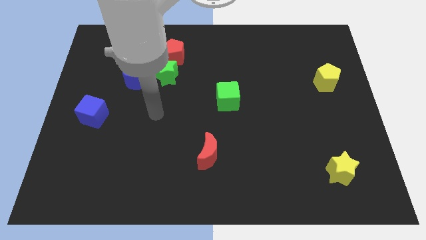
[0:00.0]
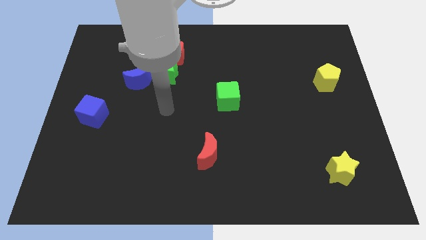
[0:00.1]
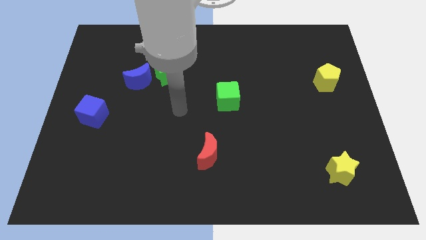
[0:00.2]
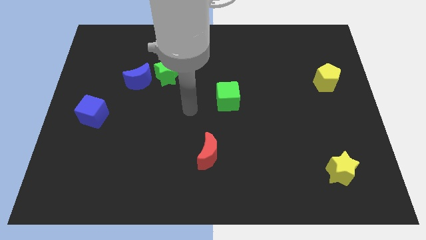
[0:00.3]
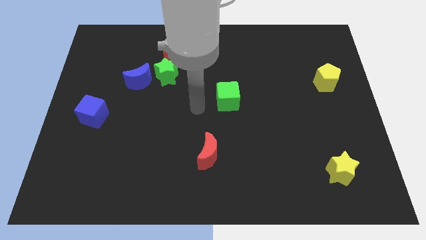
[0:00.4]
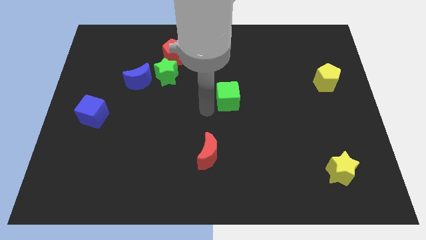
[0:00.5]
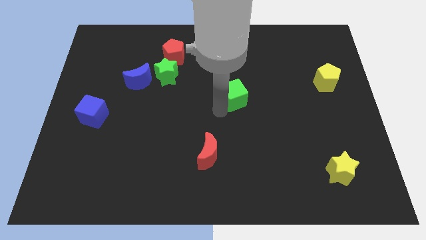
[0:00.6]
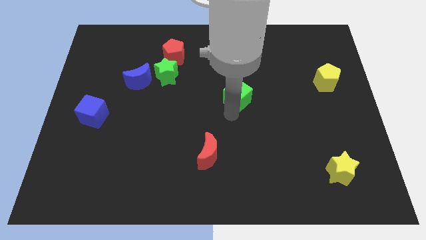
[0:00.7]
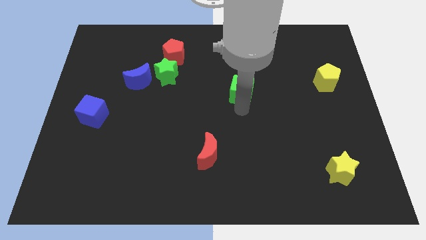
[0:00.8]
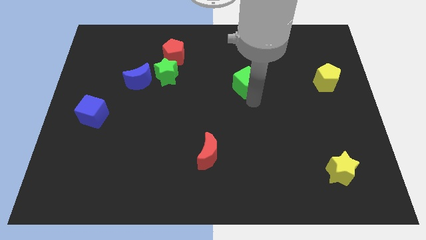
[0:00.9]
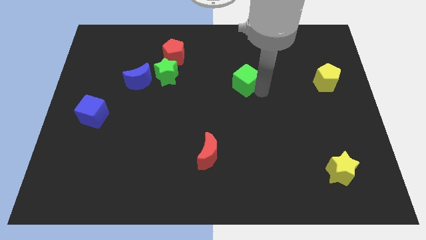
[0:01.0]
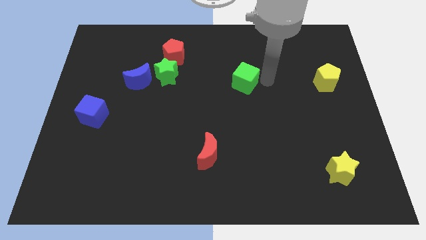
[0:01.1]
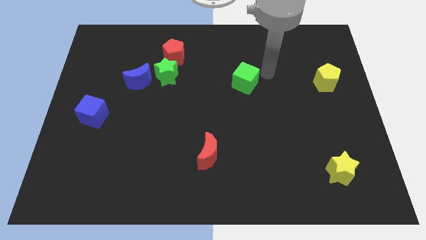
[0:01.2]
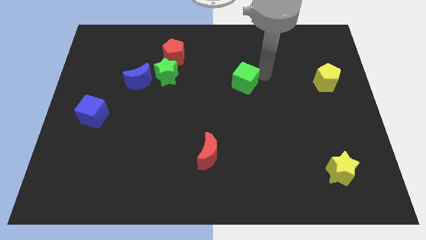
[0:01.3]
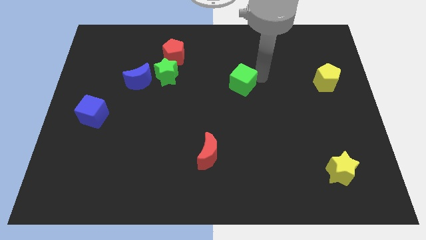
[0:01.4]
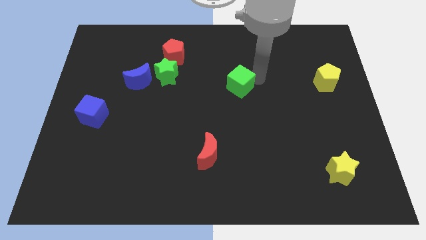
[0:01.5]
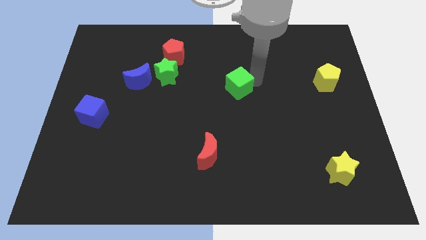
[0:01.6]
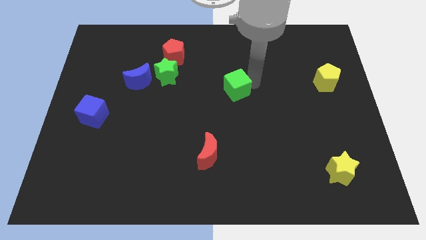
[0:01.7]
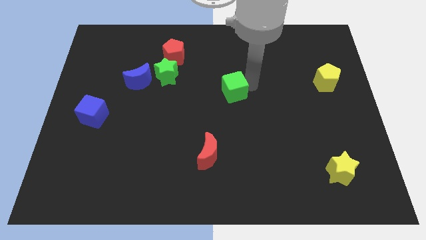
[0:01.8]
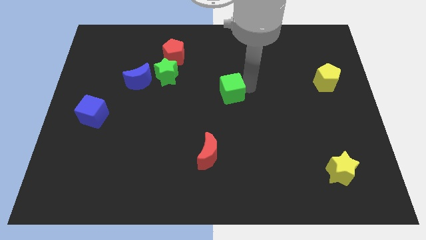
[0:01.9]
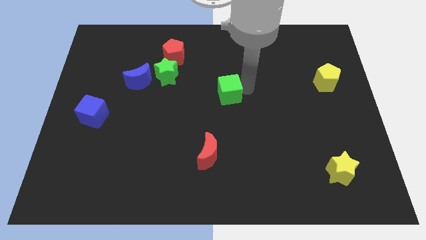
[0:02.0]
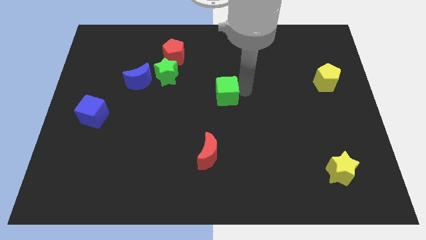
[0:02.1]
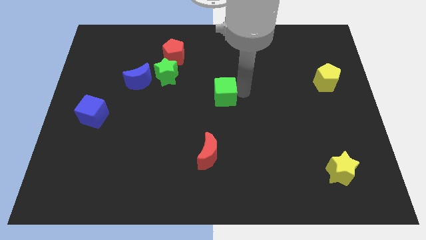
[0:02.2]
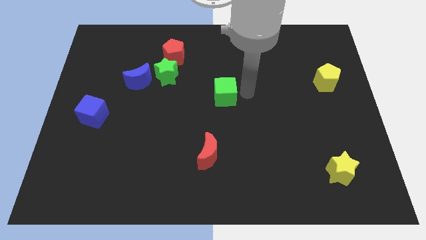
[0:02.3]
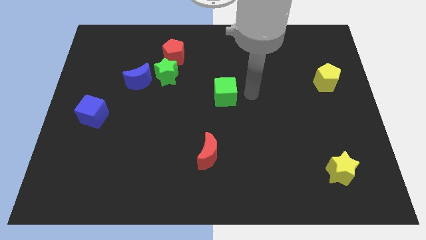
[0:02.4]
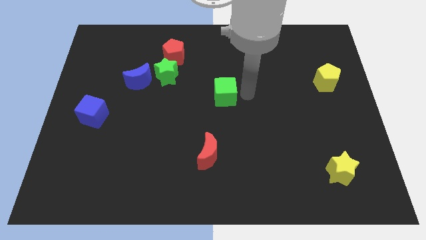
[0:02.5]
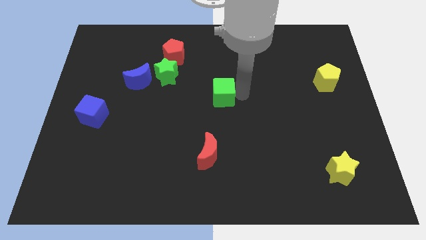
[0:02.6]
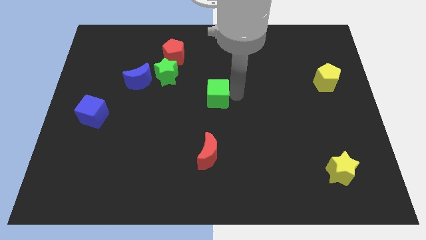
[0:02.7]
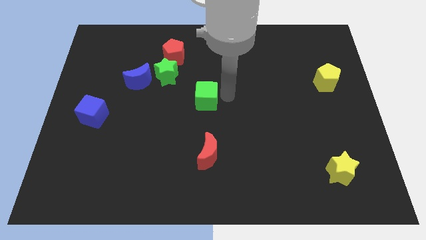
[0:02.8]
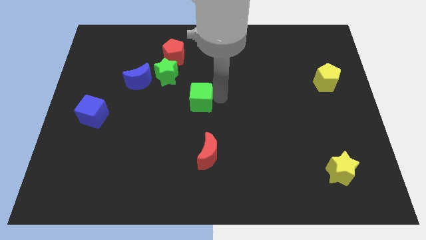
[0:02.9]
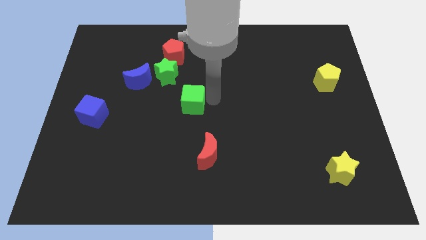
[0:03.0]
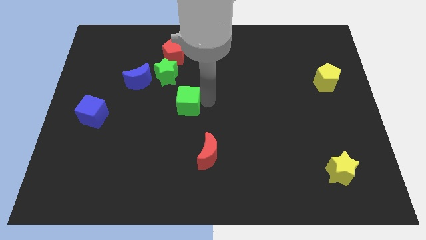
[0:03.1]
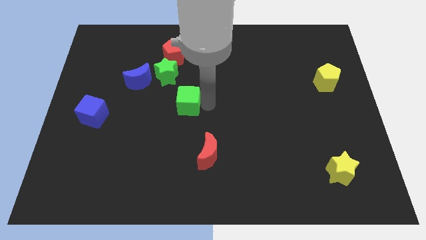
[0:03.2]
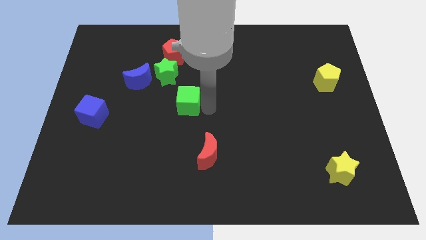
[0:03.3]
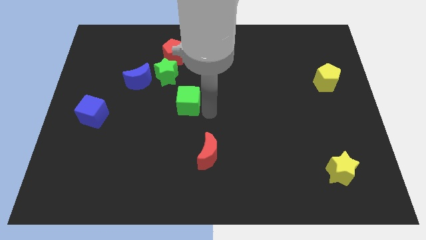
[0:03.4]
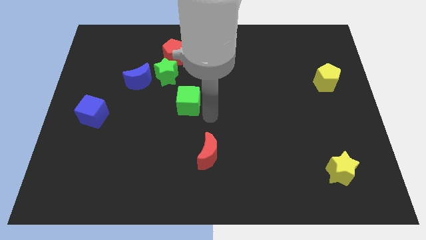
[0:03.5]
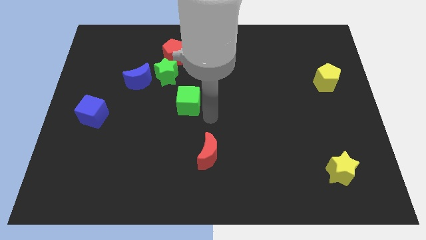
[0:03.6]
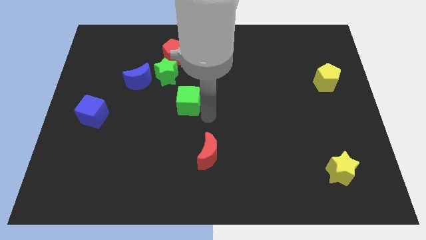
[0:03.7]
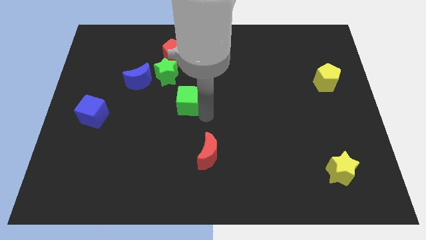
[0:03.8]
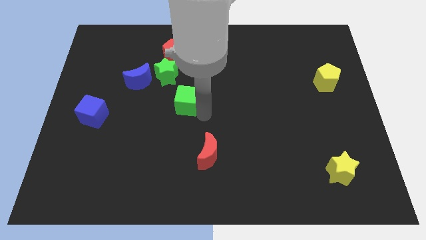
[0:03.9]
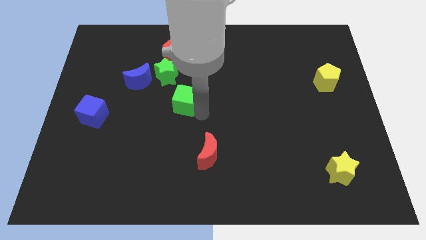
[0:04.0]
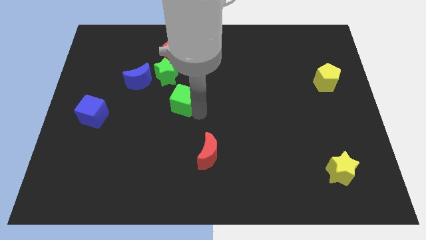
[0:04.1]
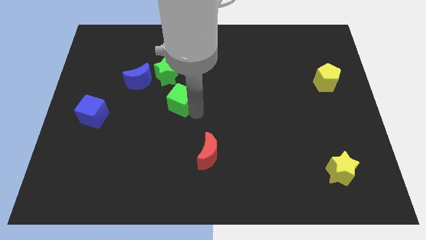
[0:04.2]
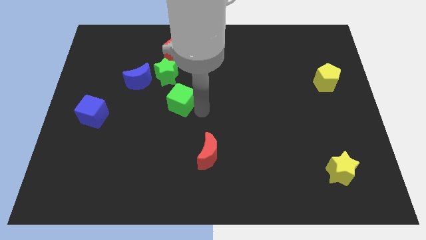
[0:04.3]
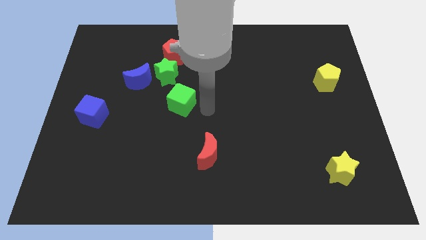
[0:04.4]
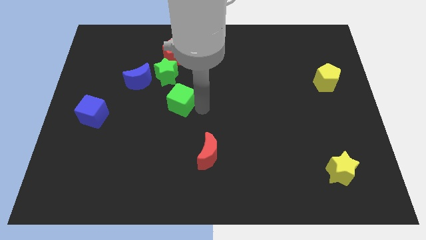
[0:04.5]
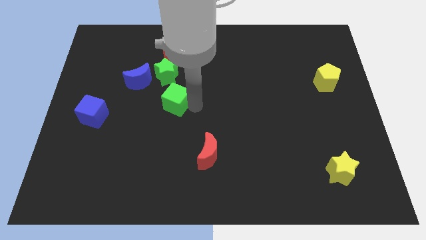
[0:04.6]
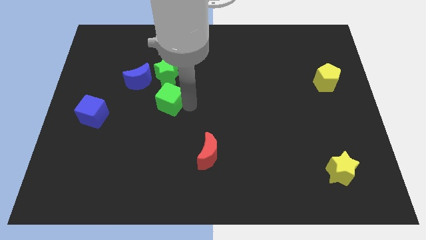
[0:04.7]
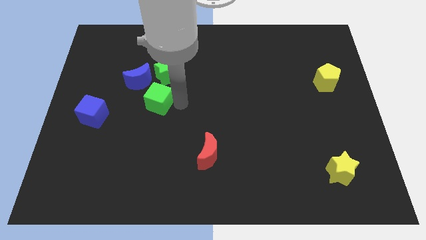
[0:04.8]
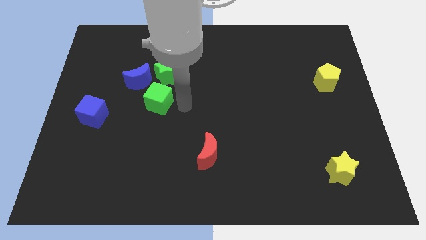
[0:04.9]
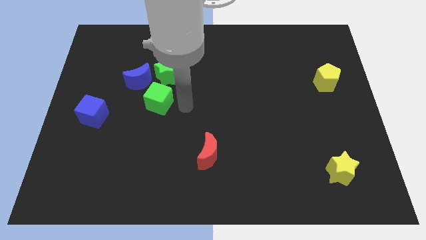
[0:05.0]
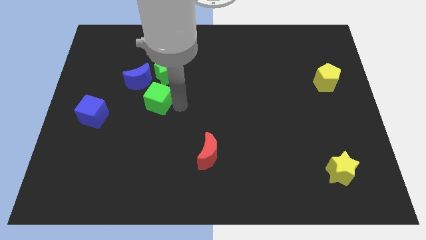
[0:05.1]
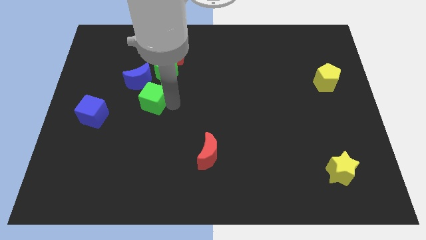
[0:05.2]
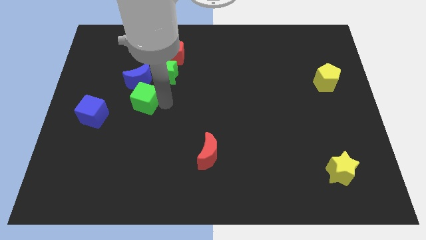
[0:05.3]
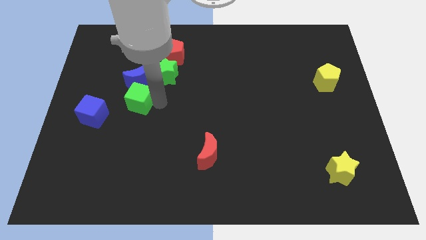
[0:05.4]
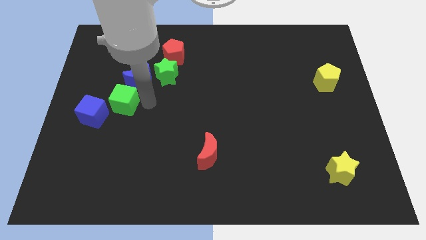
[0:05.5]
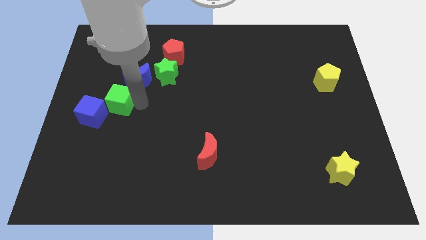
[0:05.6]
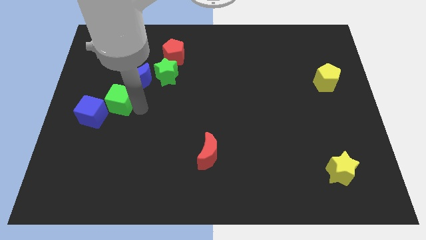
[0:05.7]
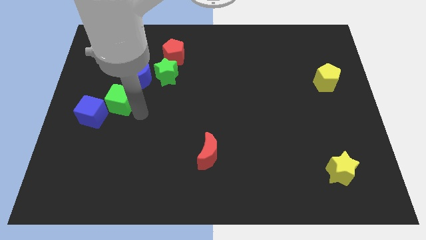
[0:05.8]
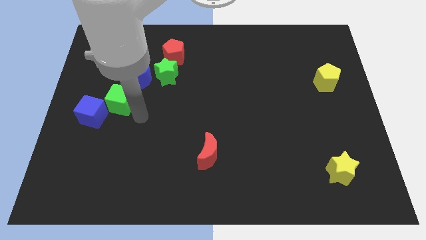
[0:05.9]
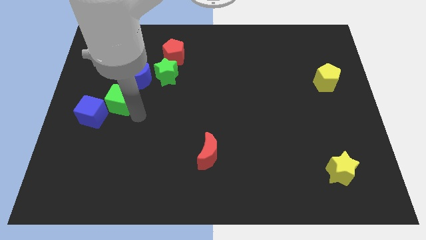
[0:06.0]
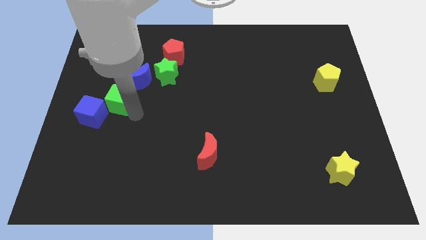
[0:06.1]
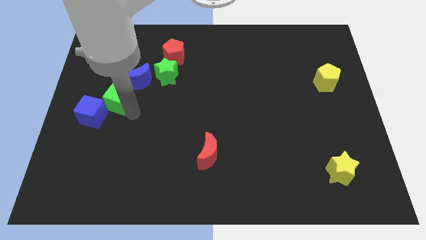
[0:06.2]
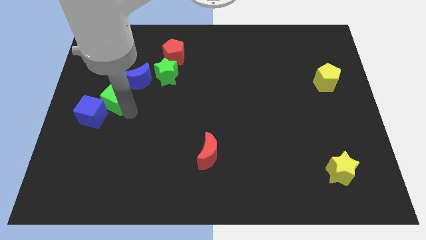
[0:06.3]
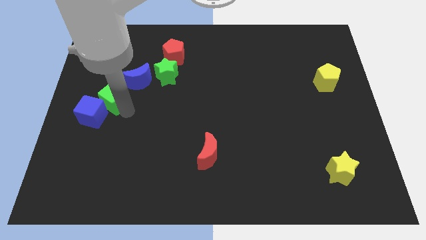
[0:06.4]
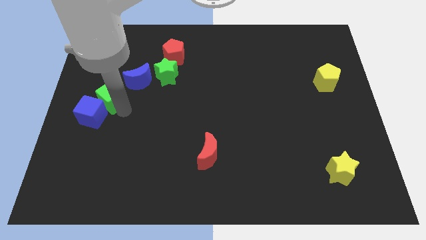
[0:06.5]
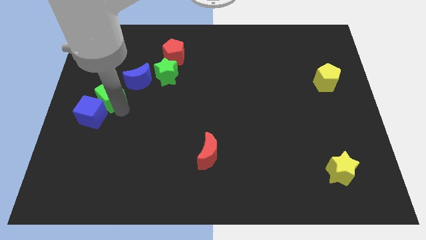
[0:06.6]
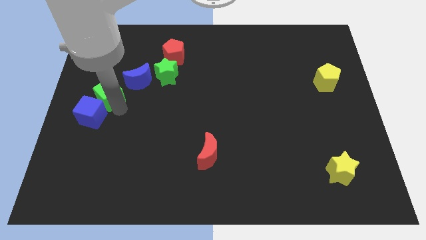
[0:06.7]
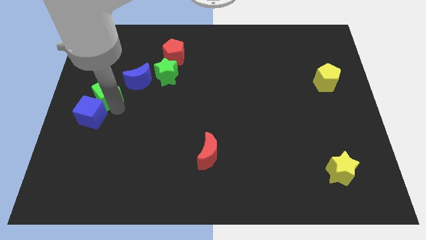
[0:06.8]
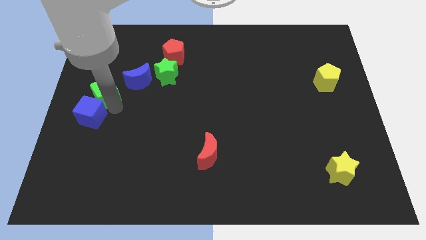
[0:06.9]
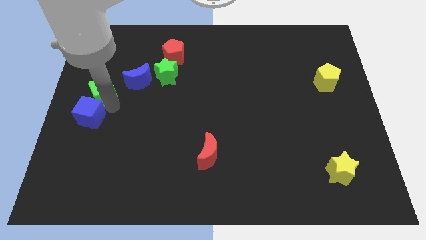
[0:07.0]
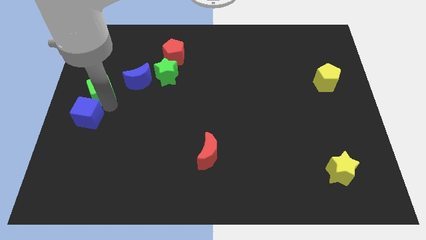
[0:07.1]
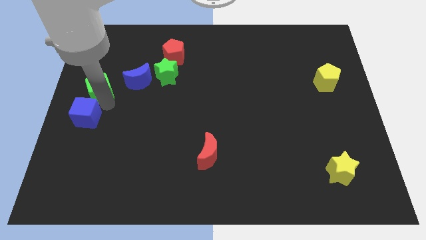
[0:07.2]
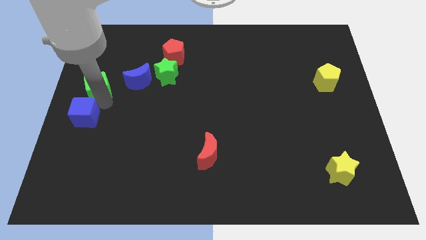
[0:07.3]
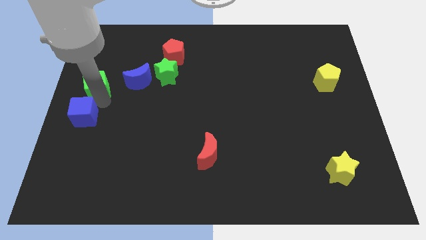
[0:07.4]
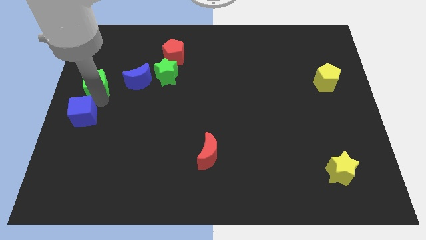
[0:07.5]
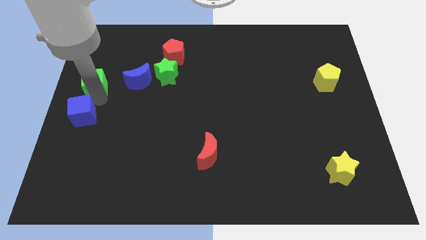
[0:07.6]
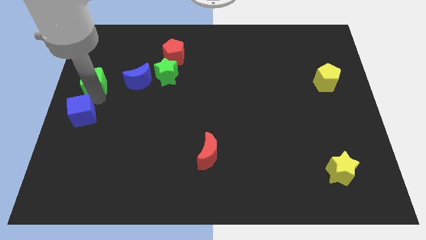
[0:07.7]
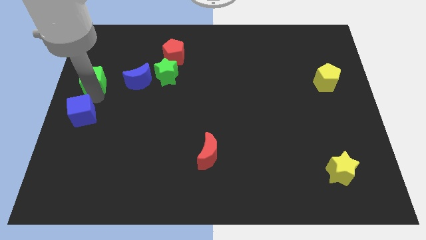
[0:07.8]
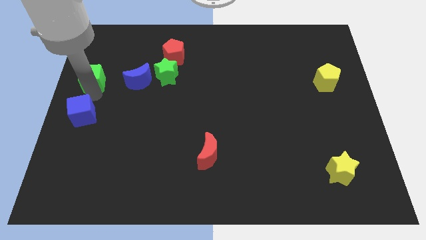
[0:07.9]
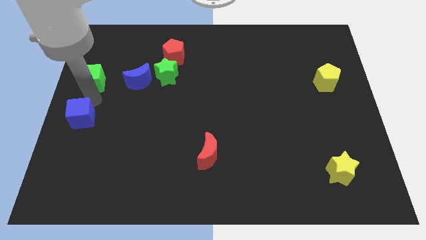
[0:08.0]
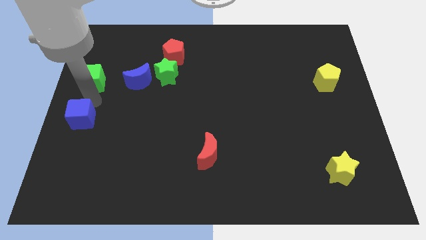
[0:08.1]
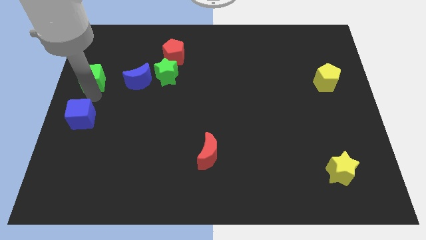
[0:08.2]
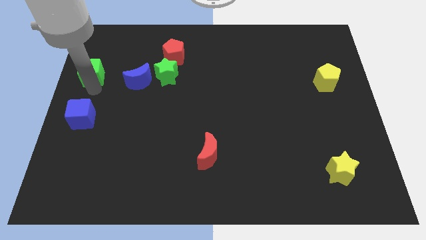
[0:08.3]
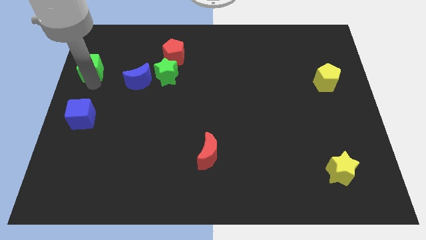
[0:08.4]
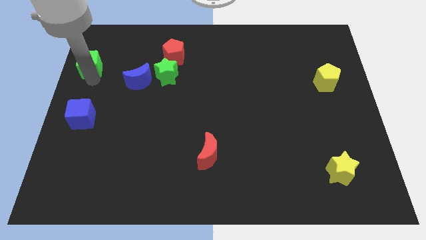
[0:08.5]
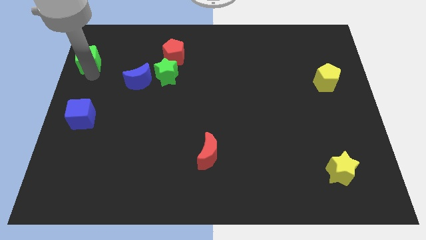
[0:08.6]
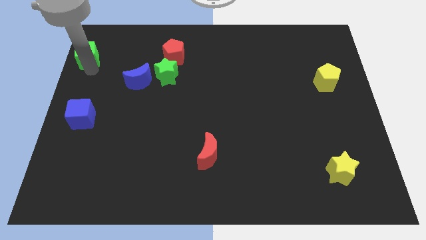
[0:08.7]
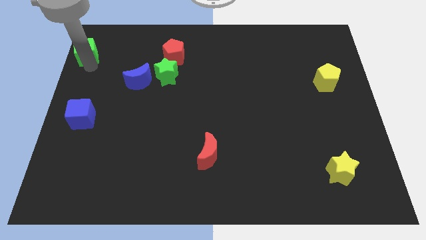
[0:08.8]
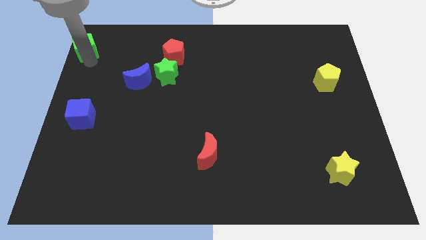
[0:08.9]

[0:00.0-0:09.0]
move the green cube to the upper left corner
